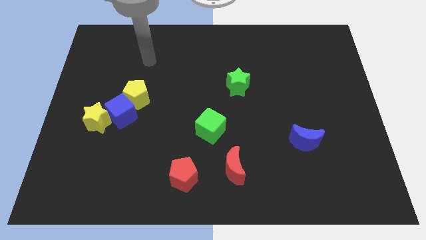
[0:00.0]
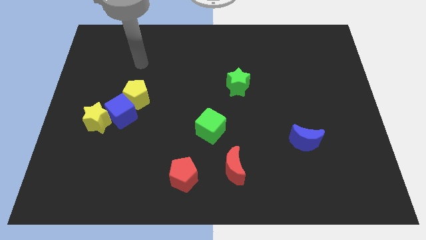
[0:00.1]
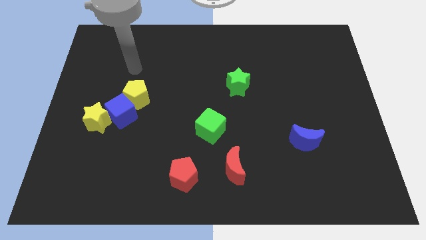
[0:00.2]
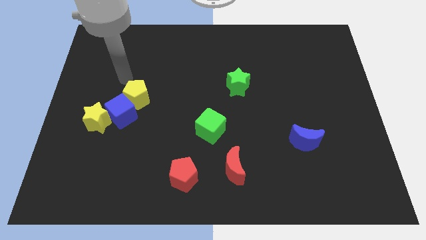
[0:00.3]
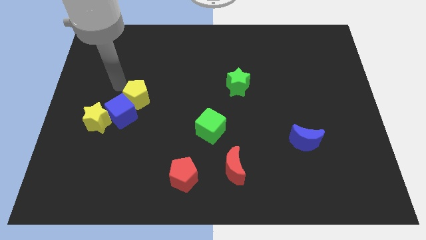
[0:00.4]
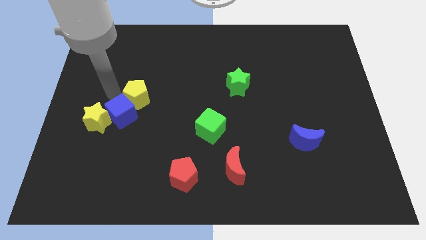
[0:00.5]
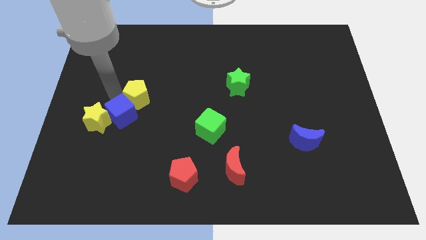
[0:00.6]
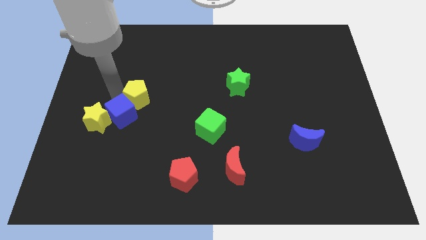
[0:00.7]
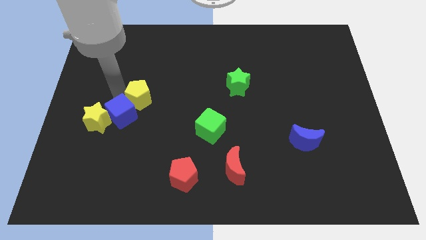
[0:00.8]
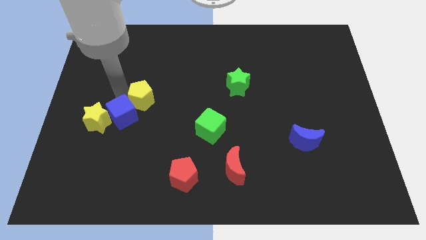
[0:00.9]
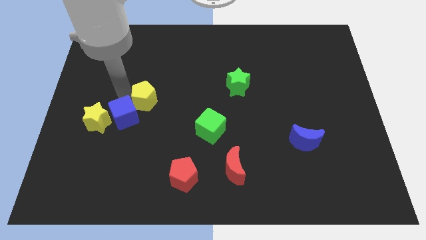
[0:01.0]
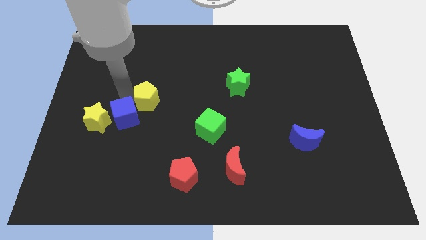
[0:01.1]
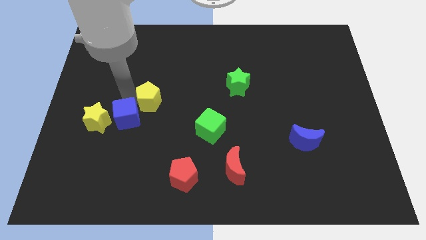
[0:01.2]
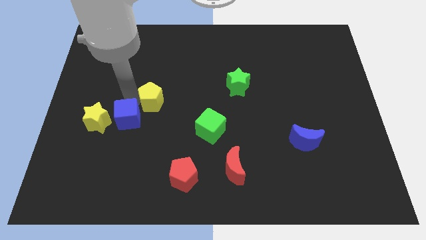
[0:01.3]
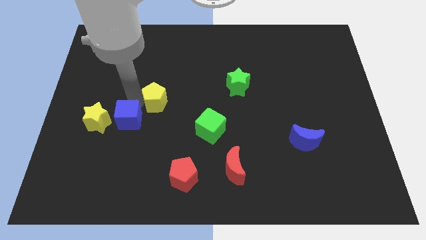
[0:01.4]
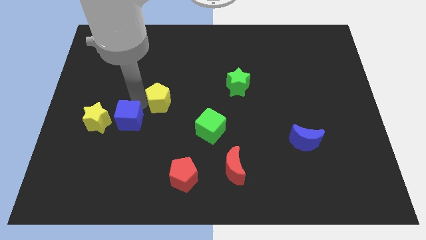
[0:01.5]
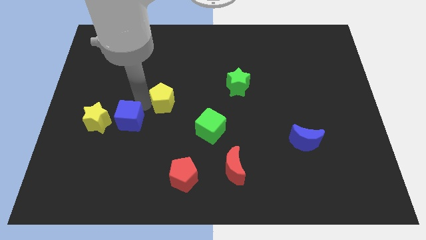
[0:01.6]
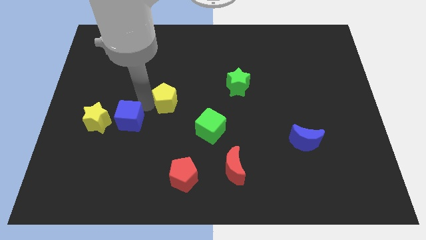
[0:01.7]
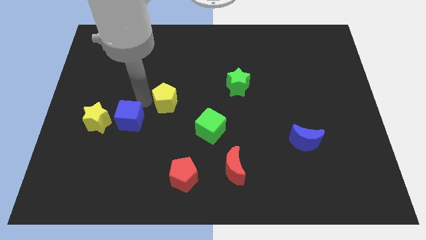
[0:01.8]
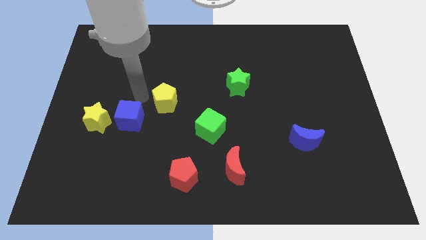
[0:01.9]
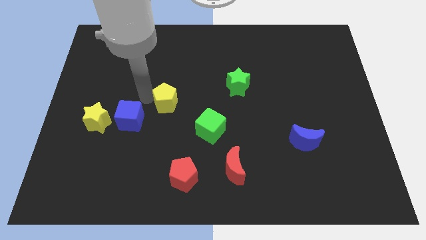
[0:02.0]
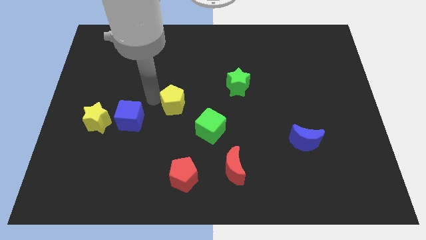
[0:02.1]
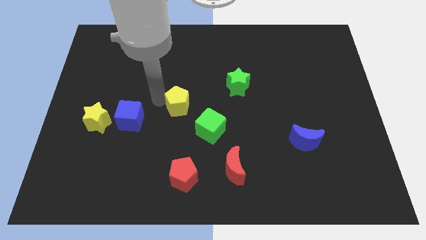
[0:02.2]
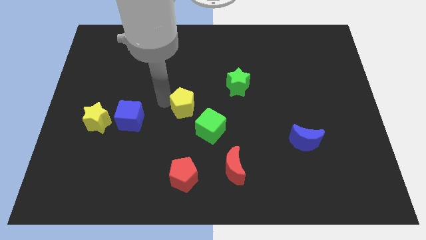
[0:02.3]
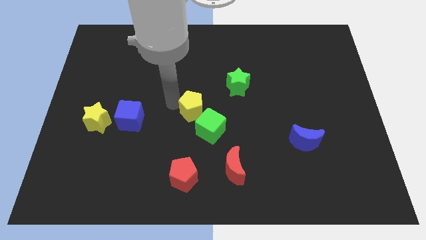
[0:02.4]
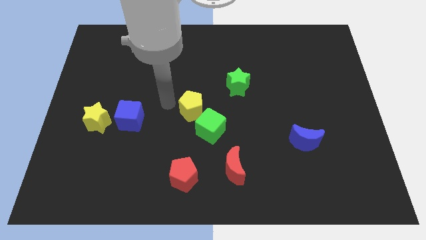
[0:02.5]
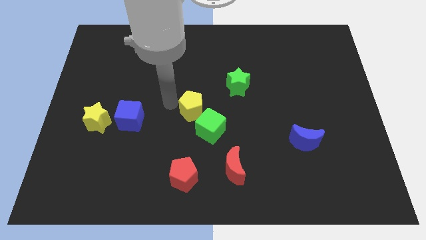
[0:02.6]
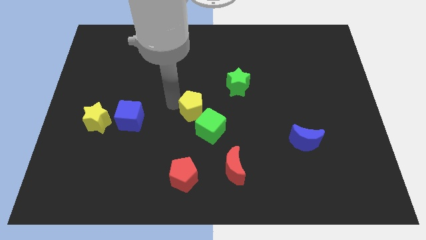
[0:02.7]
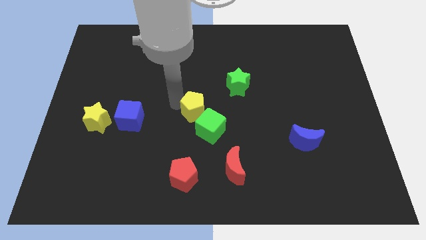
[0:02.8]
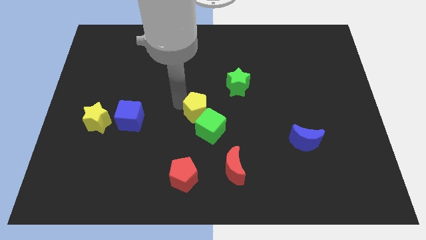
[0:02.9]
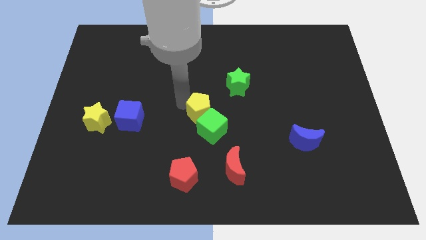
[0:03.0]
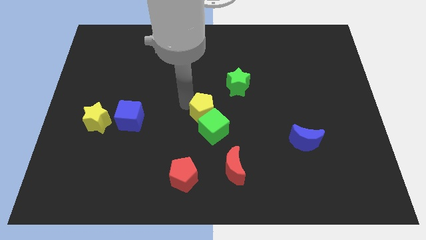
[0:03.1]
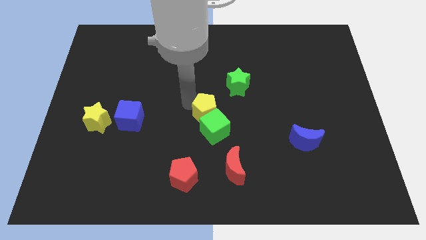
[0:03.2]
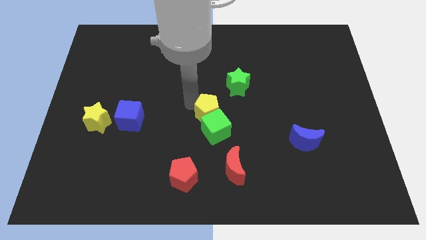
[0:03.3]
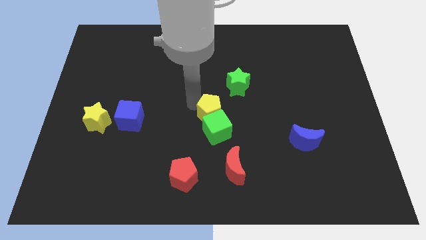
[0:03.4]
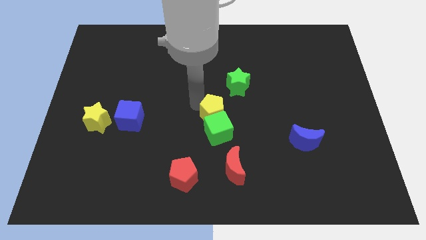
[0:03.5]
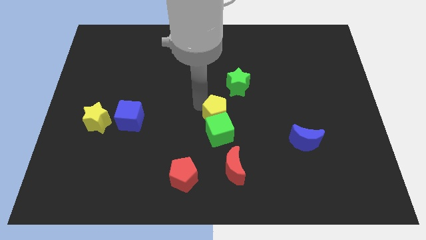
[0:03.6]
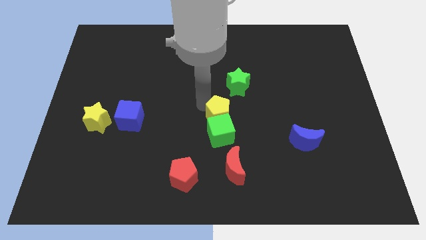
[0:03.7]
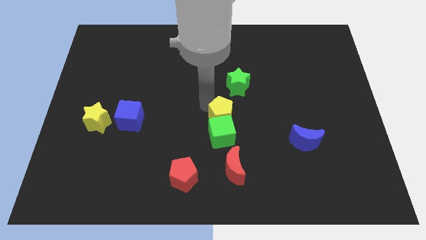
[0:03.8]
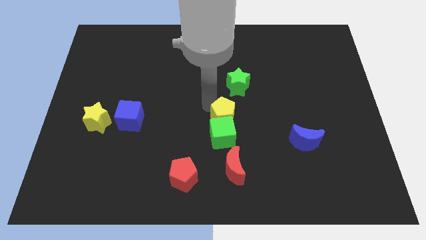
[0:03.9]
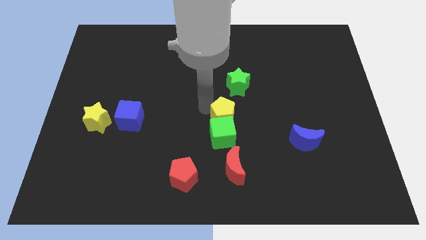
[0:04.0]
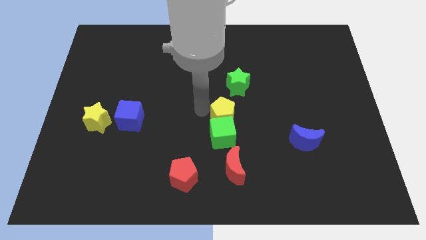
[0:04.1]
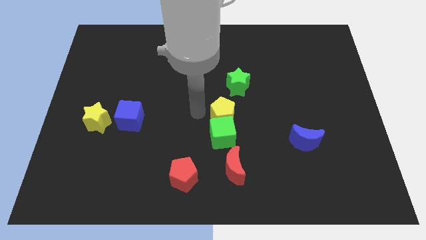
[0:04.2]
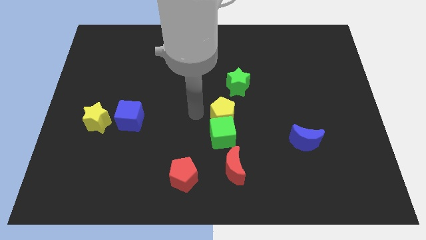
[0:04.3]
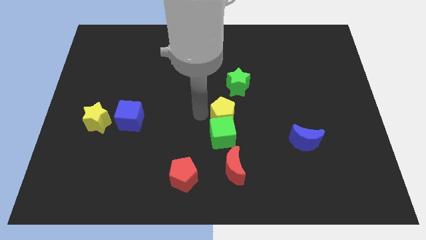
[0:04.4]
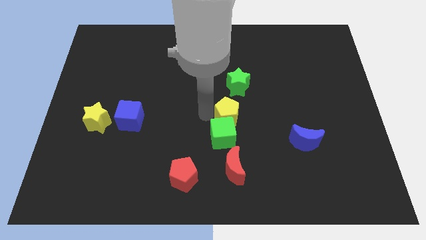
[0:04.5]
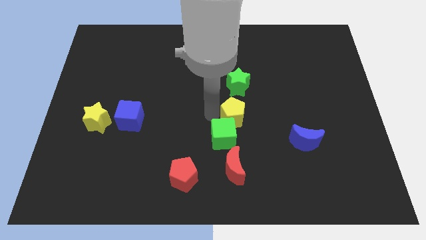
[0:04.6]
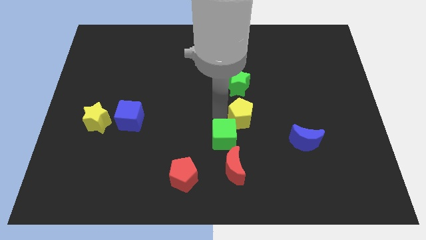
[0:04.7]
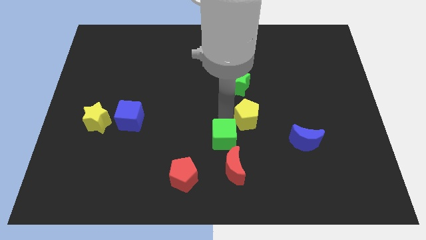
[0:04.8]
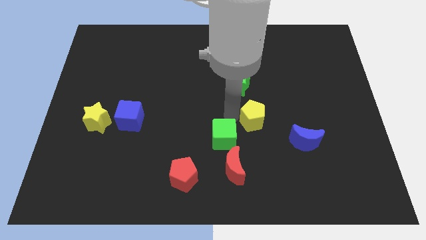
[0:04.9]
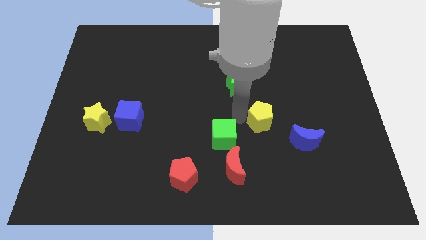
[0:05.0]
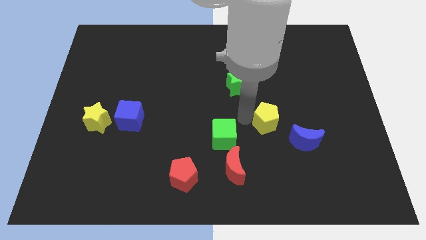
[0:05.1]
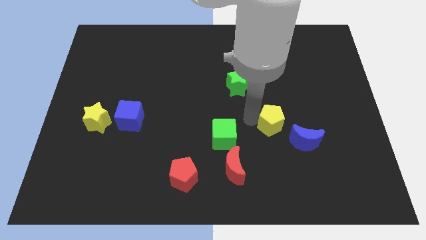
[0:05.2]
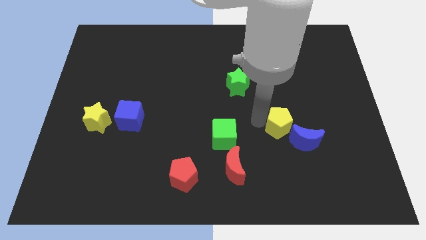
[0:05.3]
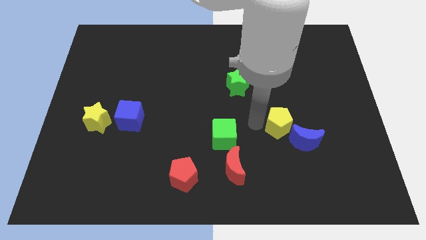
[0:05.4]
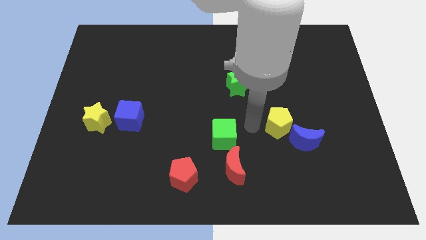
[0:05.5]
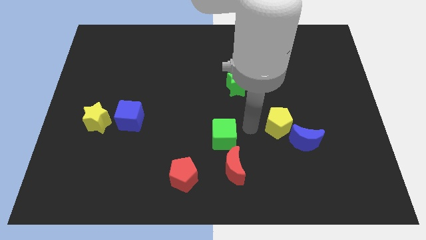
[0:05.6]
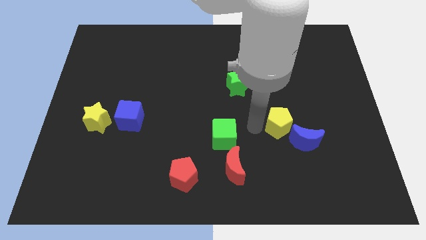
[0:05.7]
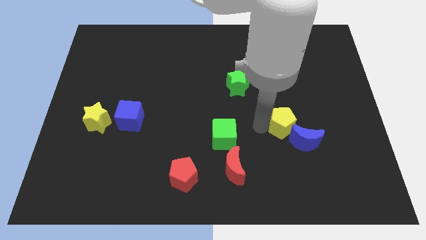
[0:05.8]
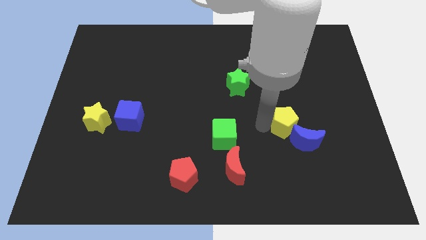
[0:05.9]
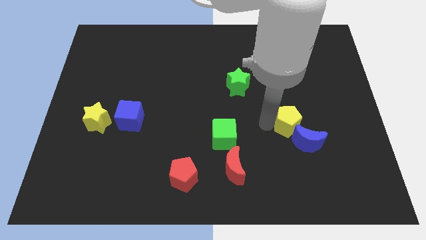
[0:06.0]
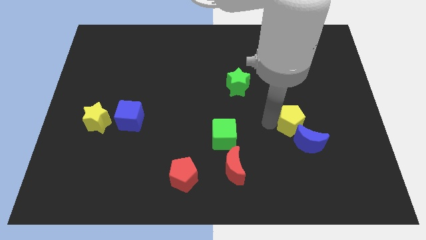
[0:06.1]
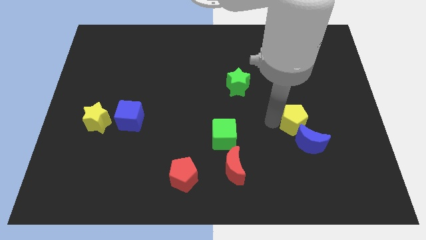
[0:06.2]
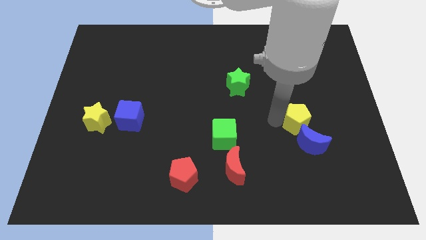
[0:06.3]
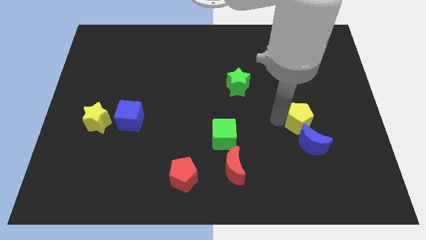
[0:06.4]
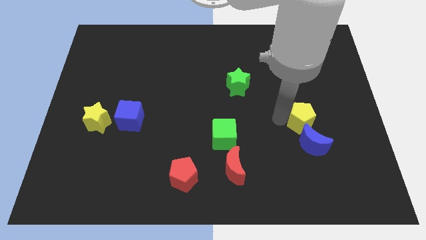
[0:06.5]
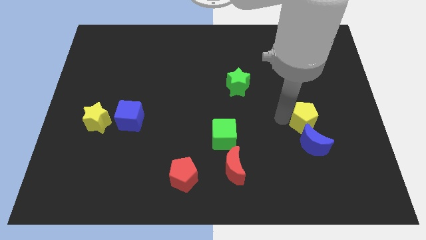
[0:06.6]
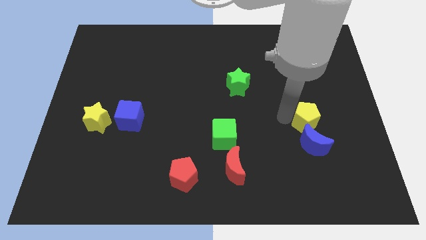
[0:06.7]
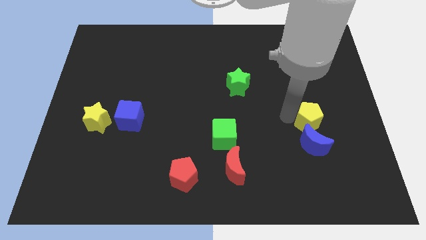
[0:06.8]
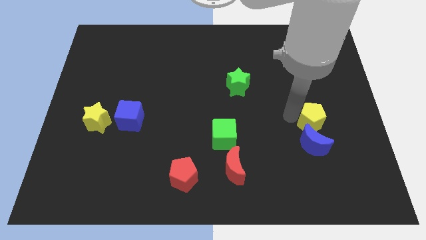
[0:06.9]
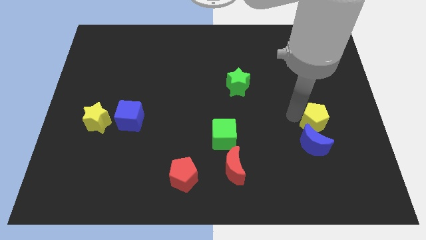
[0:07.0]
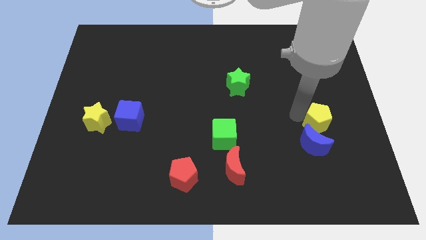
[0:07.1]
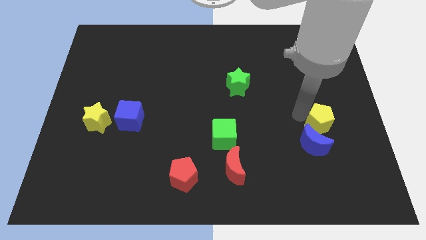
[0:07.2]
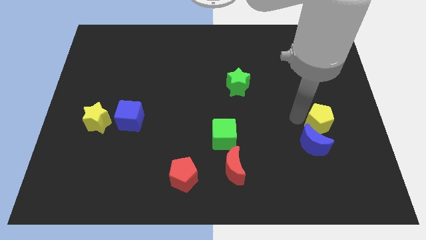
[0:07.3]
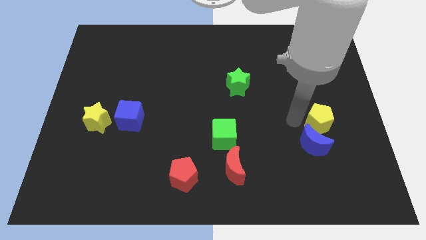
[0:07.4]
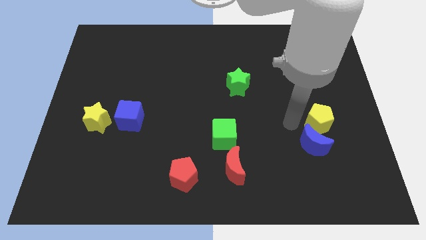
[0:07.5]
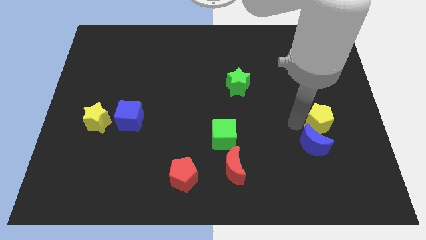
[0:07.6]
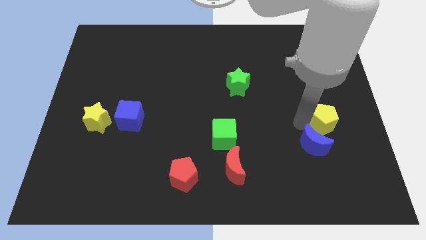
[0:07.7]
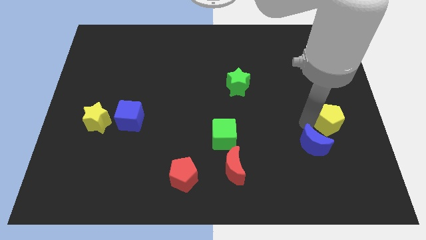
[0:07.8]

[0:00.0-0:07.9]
slide the yellow pentagon to the center right
